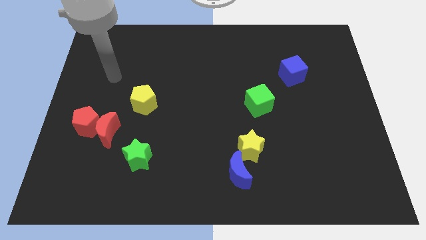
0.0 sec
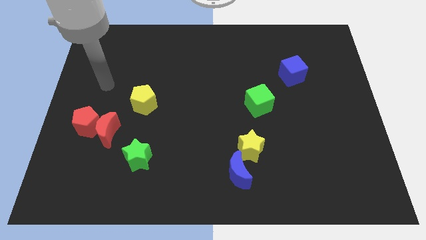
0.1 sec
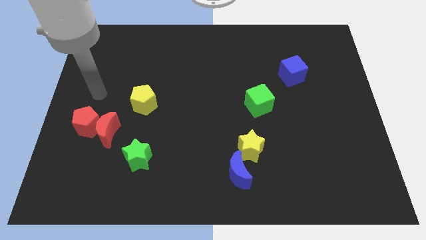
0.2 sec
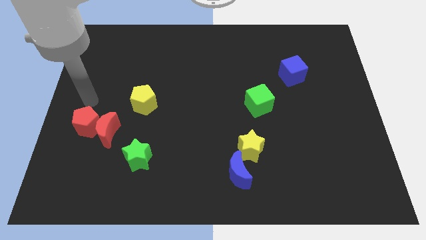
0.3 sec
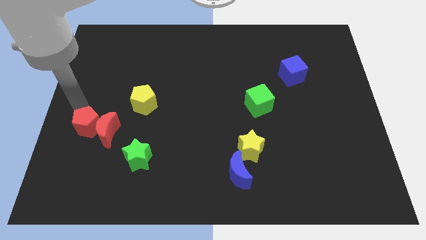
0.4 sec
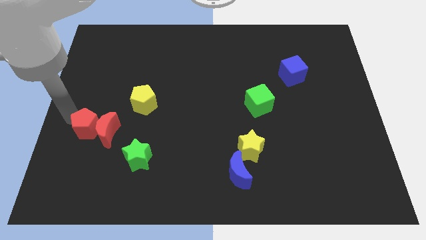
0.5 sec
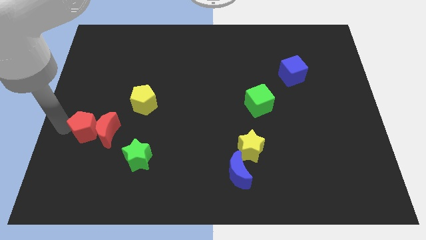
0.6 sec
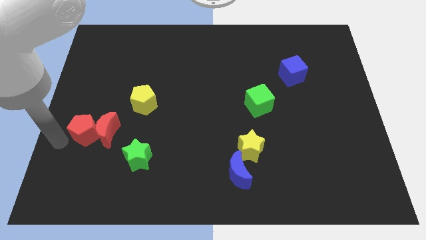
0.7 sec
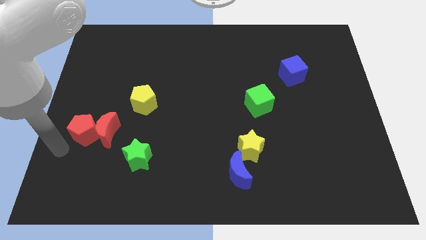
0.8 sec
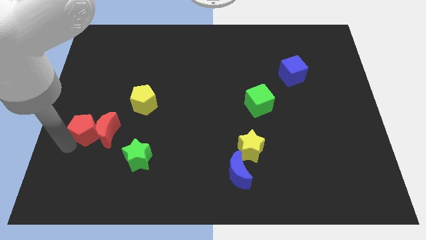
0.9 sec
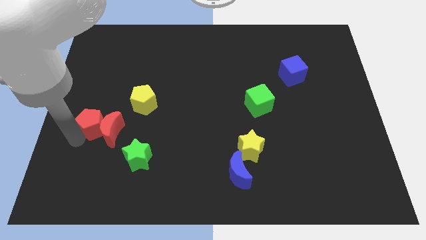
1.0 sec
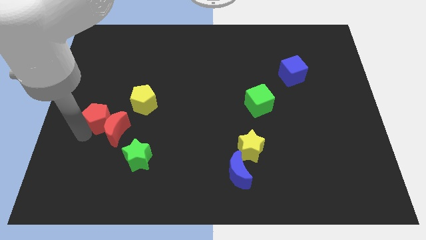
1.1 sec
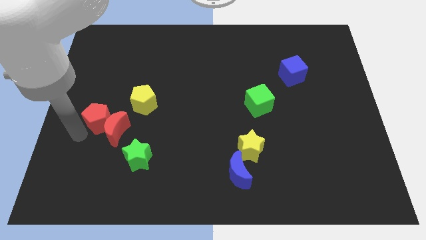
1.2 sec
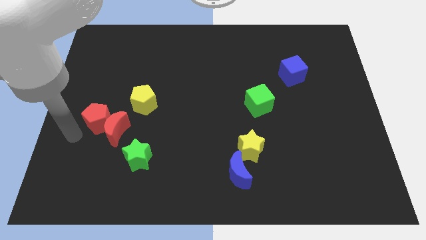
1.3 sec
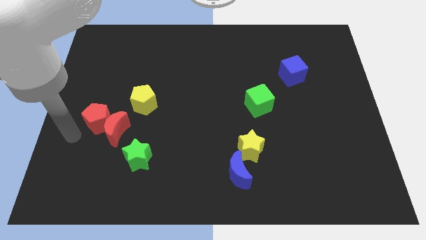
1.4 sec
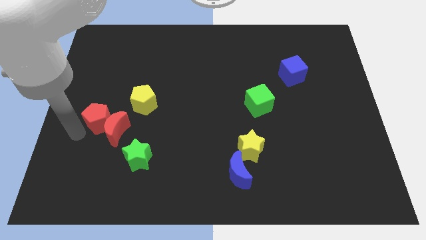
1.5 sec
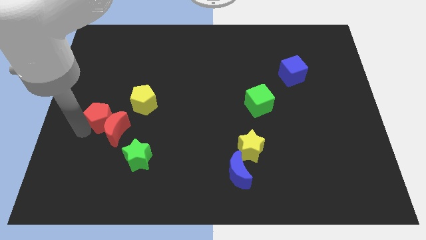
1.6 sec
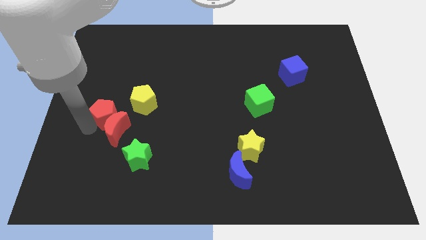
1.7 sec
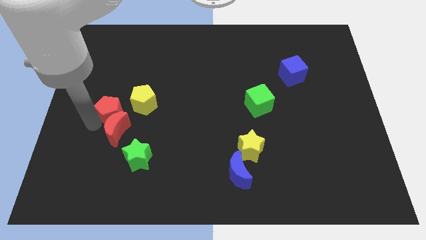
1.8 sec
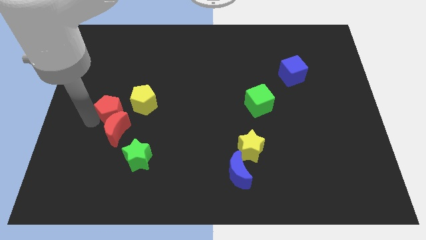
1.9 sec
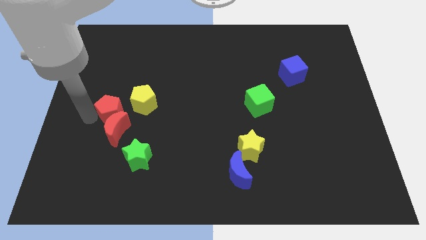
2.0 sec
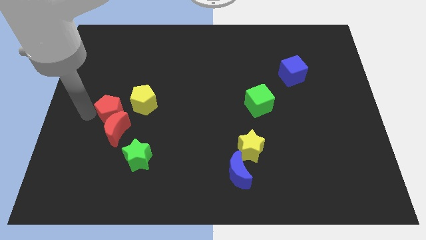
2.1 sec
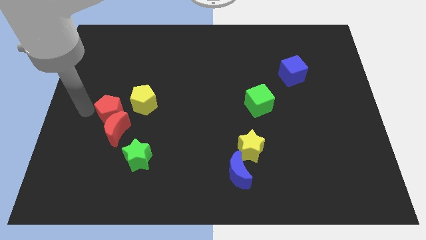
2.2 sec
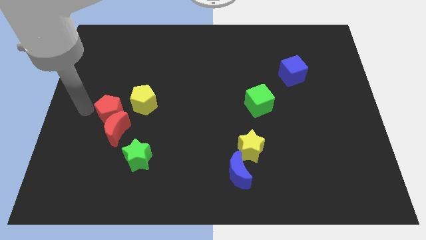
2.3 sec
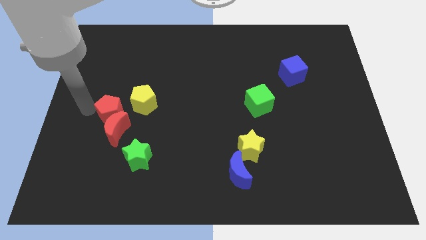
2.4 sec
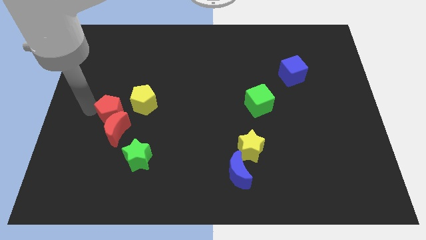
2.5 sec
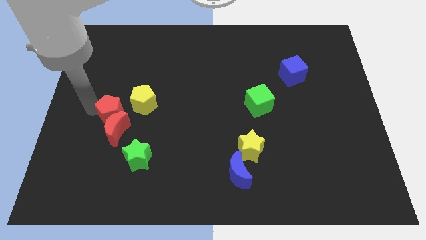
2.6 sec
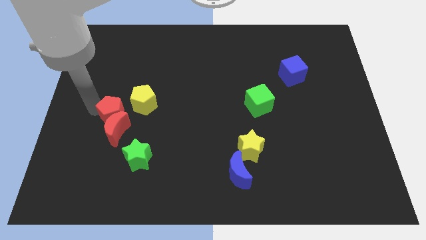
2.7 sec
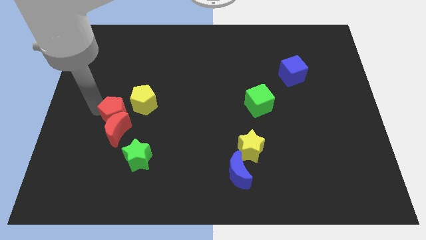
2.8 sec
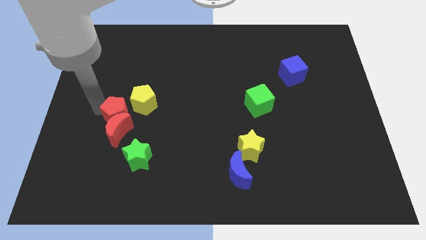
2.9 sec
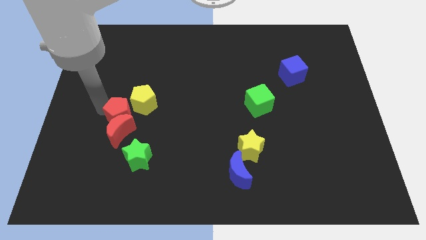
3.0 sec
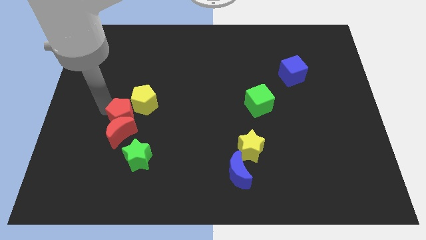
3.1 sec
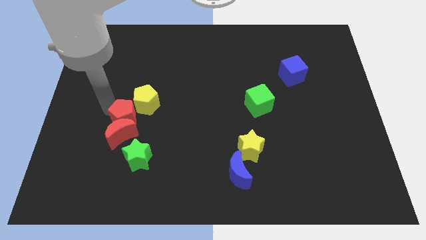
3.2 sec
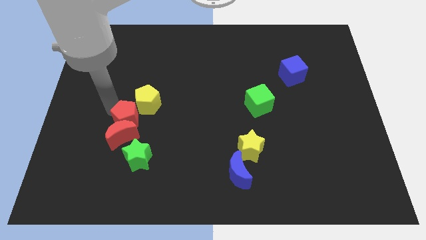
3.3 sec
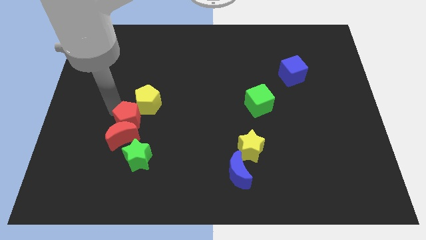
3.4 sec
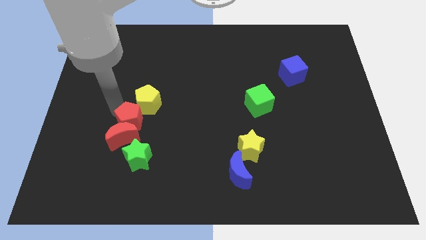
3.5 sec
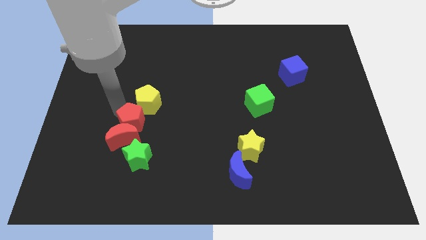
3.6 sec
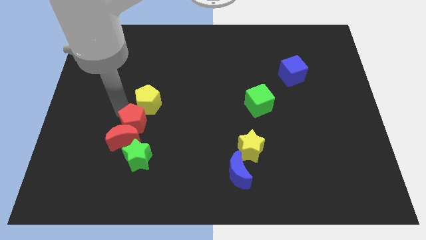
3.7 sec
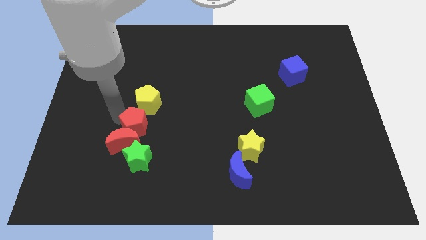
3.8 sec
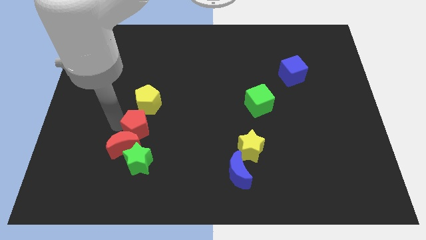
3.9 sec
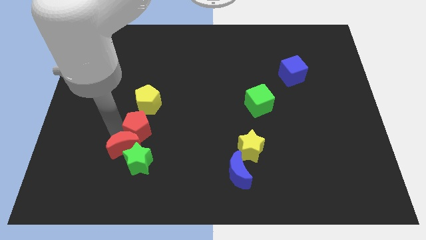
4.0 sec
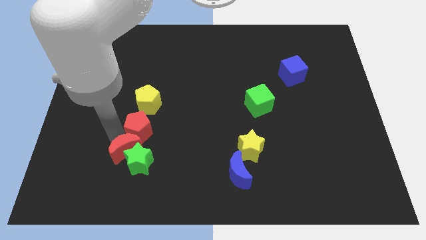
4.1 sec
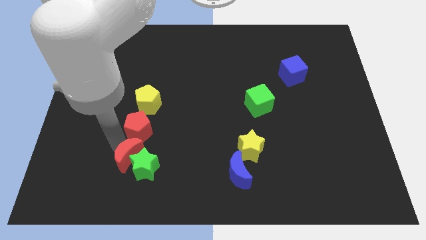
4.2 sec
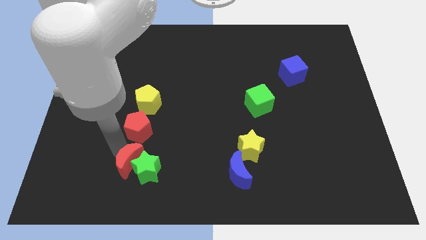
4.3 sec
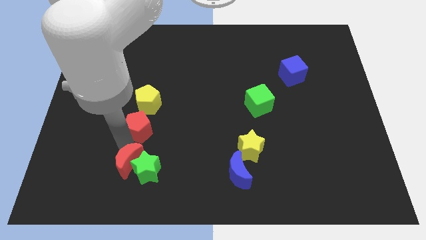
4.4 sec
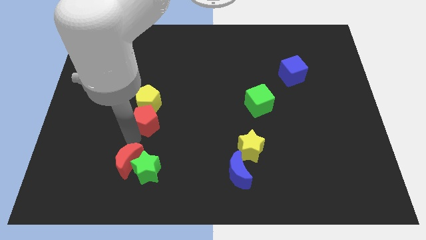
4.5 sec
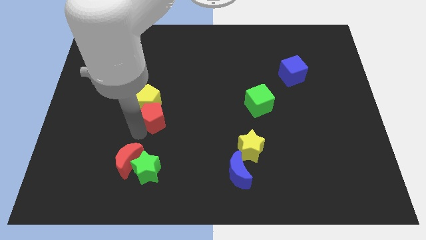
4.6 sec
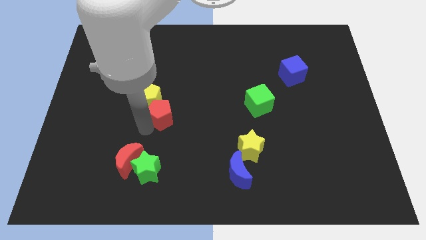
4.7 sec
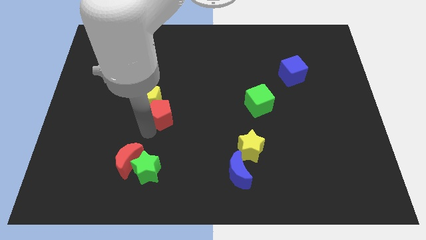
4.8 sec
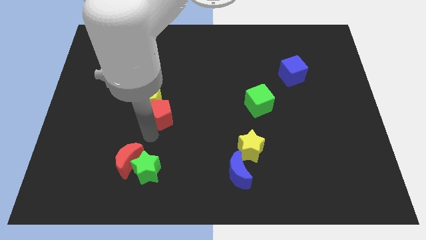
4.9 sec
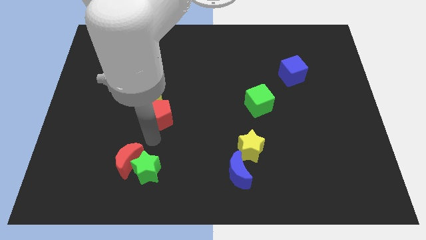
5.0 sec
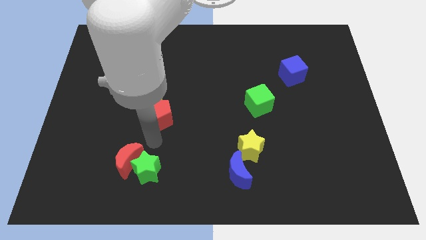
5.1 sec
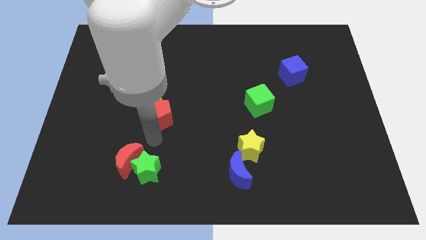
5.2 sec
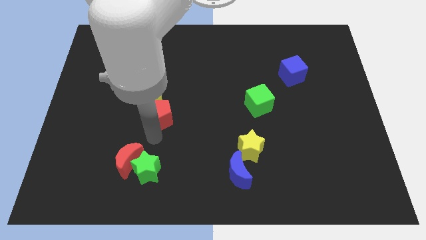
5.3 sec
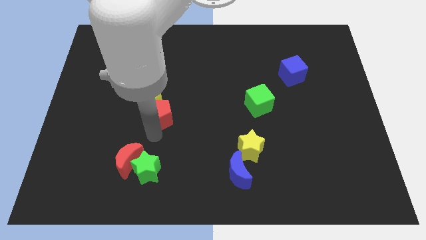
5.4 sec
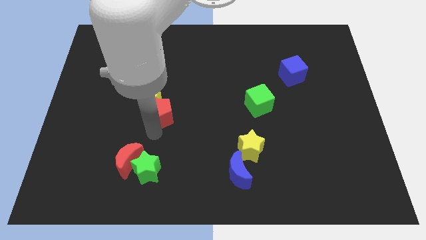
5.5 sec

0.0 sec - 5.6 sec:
slide the red pentagon to the middle

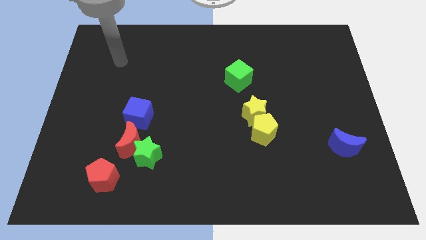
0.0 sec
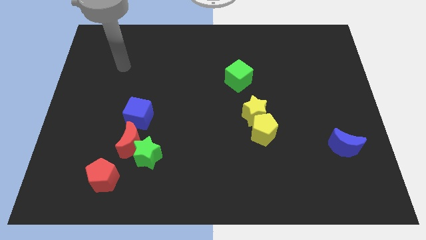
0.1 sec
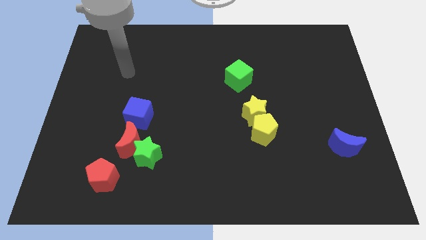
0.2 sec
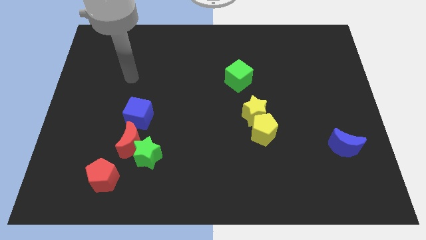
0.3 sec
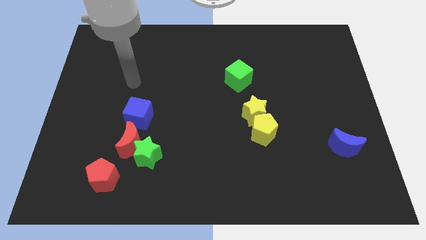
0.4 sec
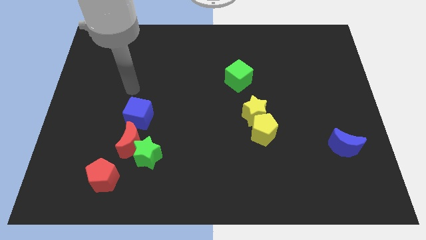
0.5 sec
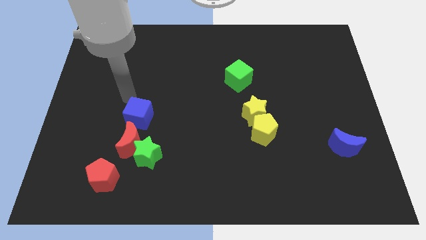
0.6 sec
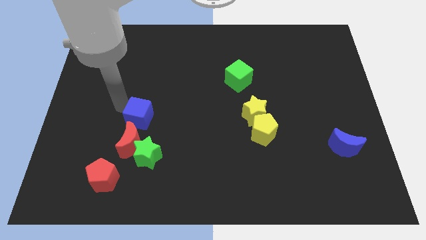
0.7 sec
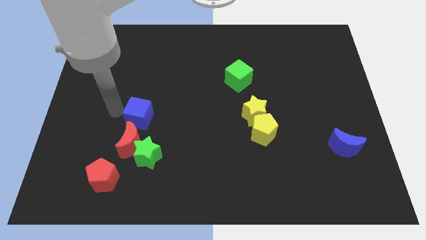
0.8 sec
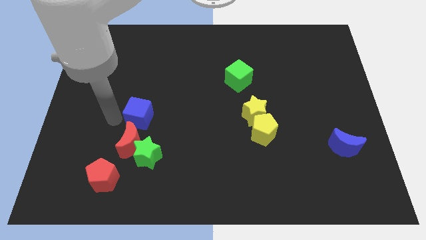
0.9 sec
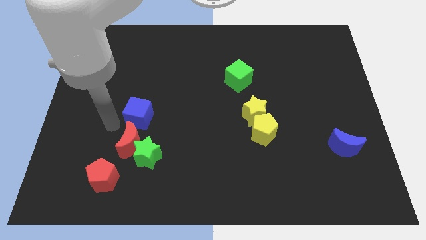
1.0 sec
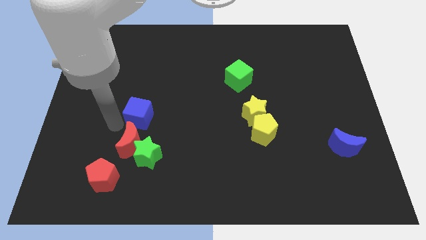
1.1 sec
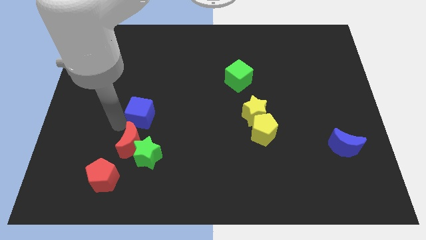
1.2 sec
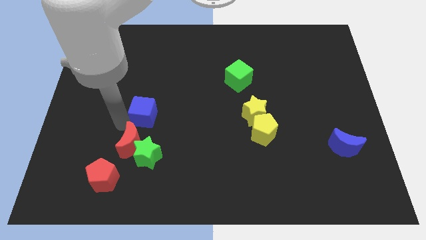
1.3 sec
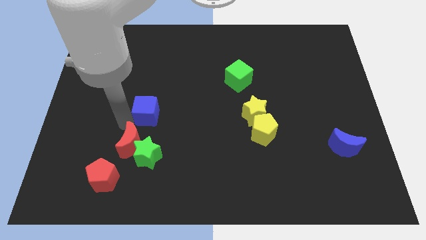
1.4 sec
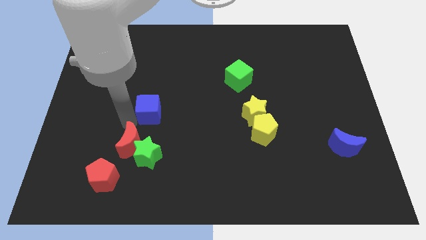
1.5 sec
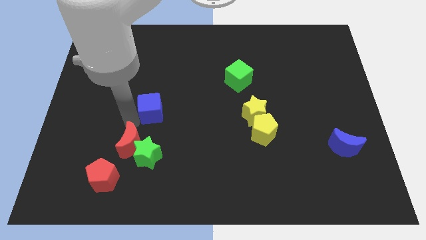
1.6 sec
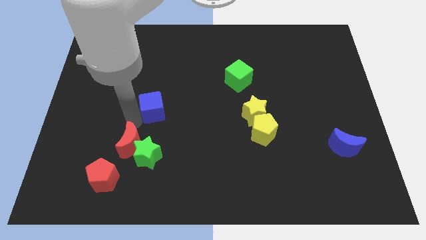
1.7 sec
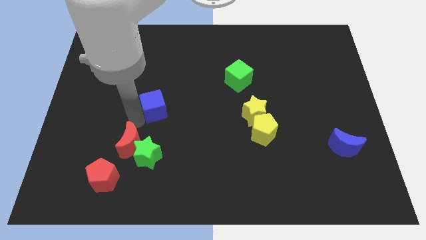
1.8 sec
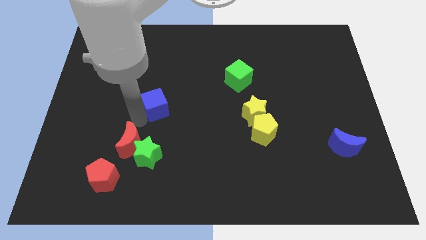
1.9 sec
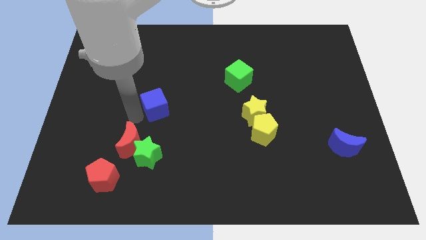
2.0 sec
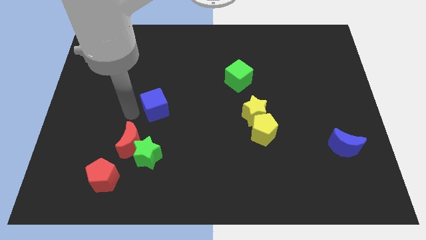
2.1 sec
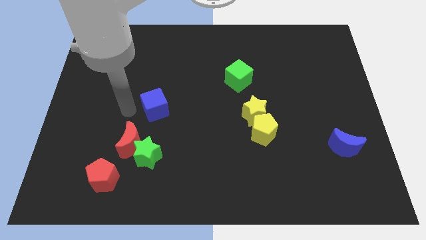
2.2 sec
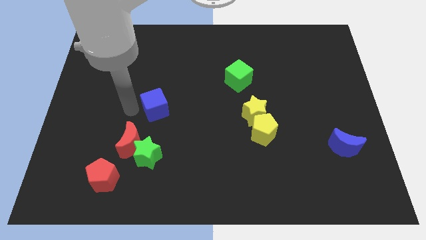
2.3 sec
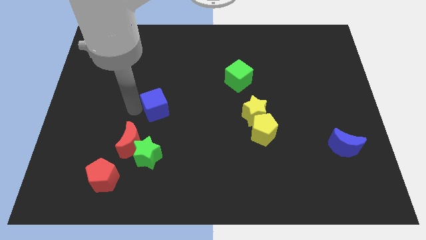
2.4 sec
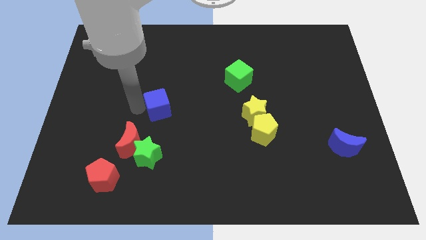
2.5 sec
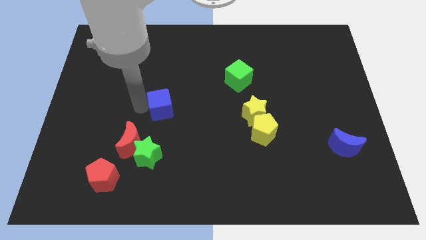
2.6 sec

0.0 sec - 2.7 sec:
put the blue cube to the middle
